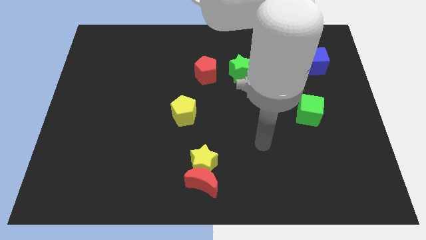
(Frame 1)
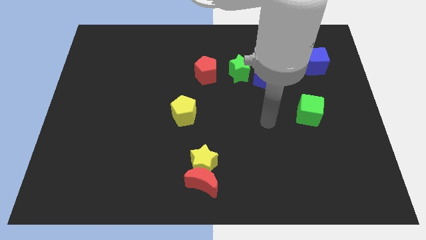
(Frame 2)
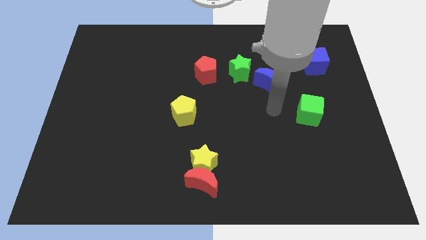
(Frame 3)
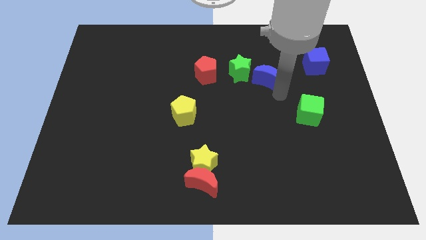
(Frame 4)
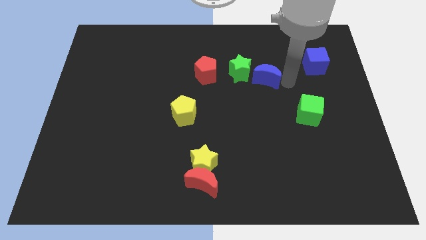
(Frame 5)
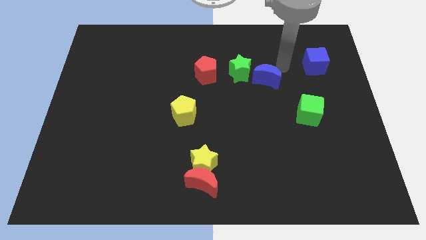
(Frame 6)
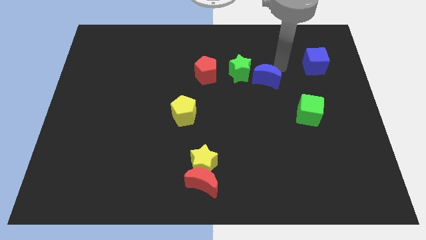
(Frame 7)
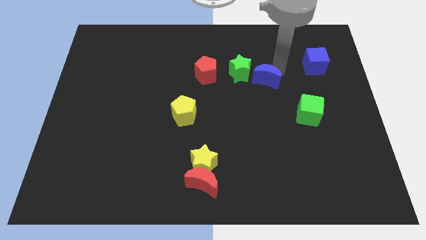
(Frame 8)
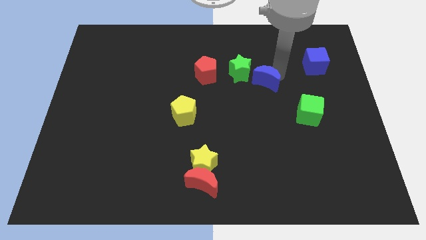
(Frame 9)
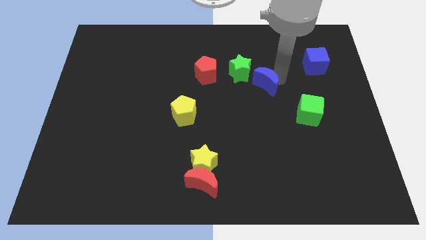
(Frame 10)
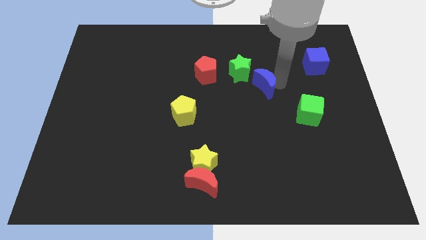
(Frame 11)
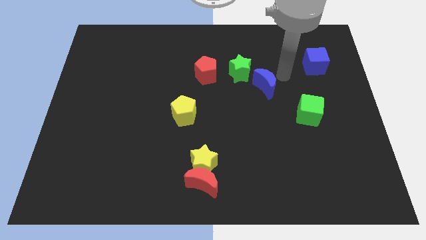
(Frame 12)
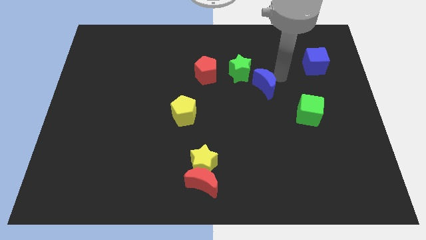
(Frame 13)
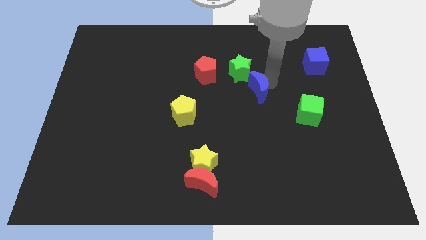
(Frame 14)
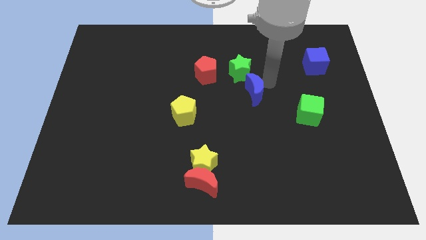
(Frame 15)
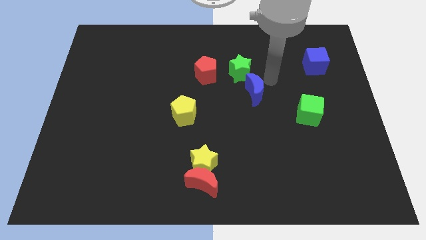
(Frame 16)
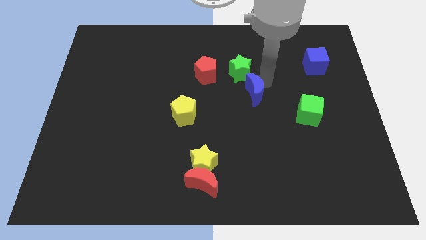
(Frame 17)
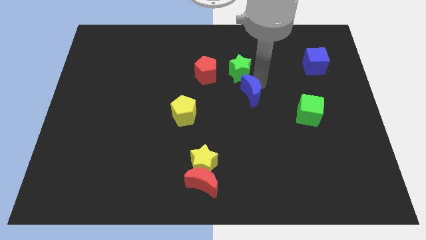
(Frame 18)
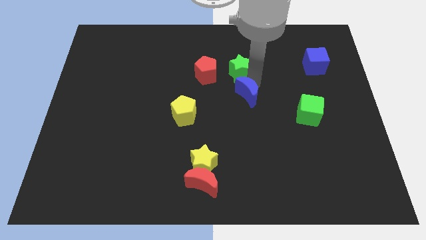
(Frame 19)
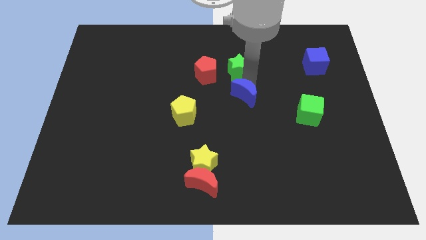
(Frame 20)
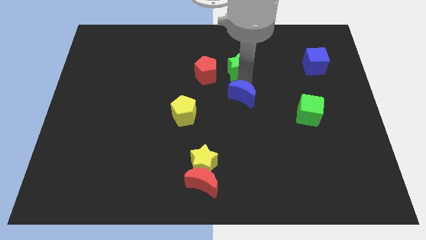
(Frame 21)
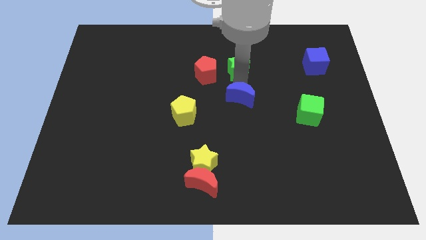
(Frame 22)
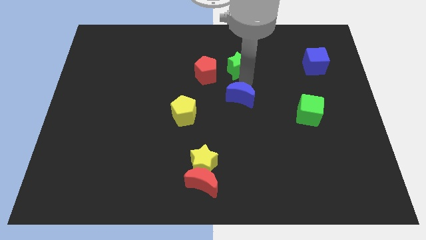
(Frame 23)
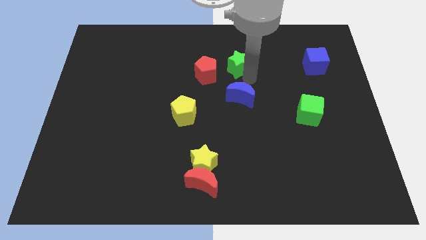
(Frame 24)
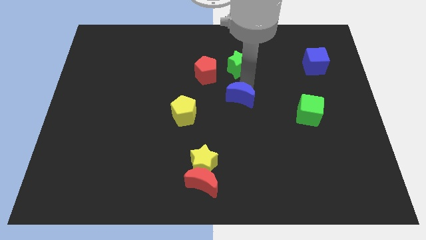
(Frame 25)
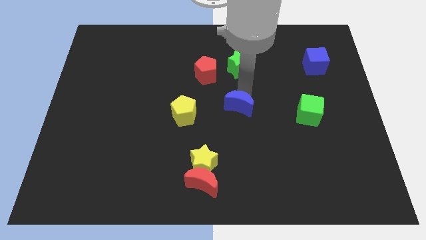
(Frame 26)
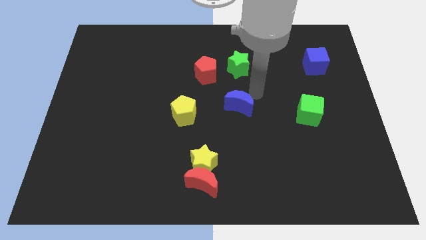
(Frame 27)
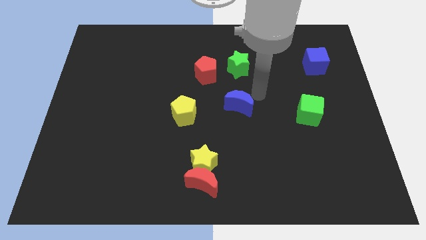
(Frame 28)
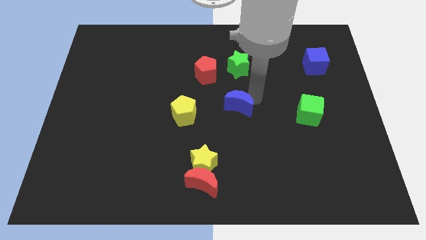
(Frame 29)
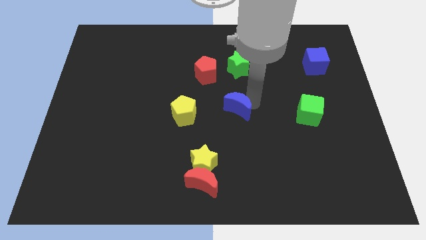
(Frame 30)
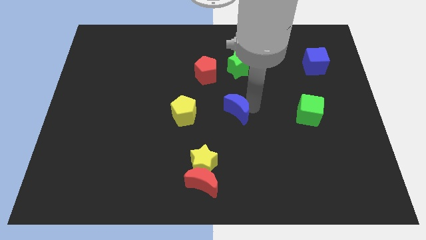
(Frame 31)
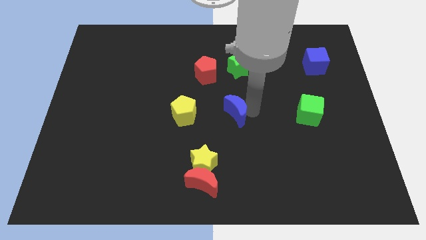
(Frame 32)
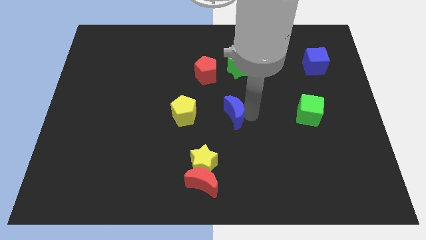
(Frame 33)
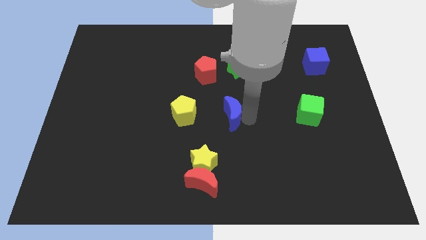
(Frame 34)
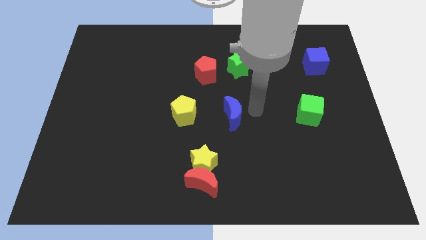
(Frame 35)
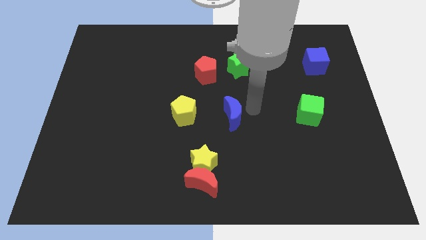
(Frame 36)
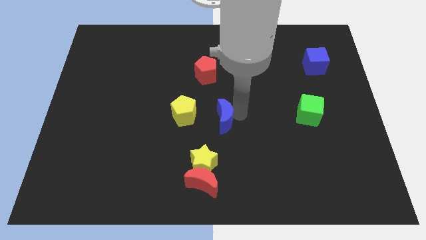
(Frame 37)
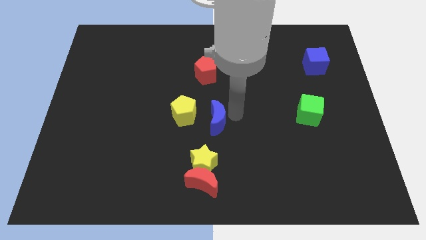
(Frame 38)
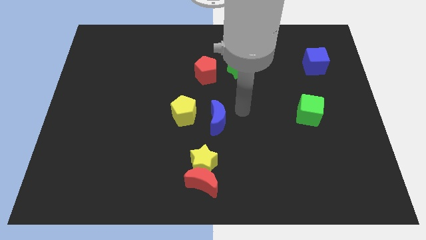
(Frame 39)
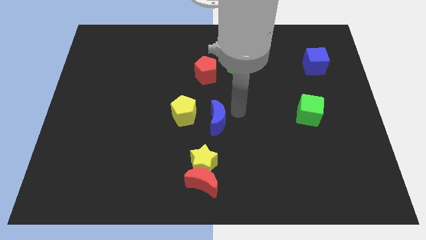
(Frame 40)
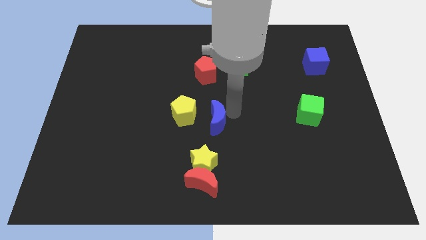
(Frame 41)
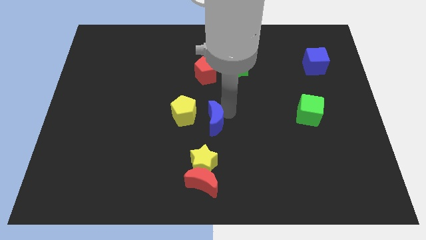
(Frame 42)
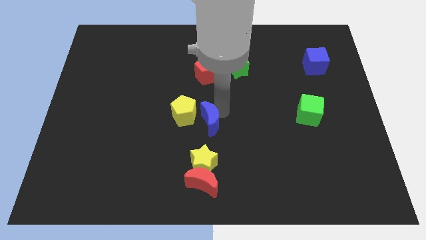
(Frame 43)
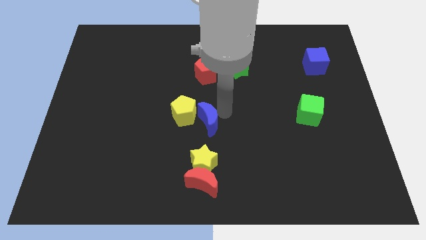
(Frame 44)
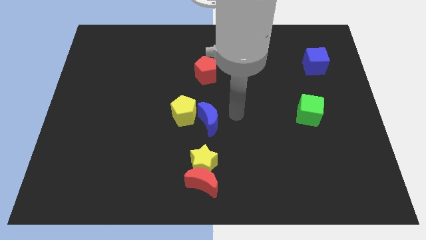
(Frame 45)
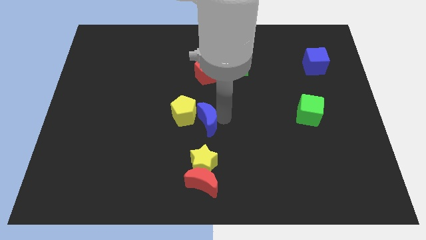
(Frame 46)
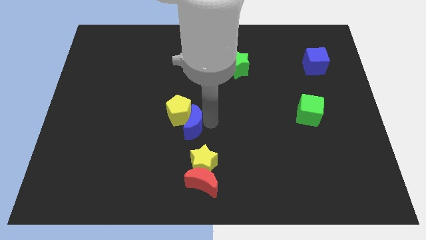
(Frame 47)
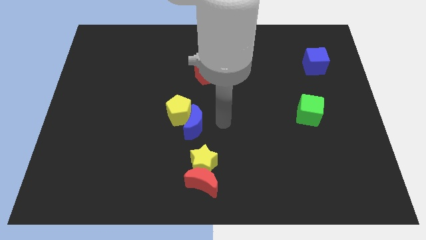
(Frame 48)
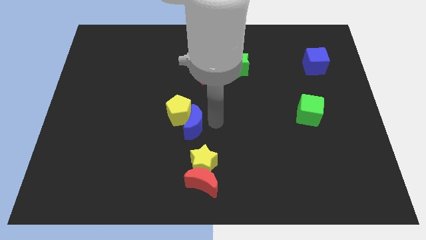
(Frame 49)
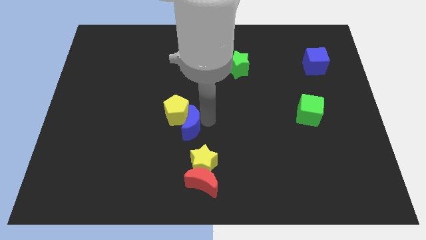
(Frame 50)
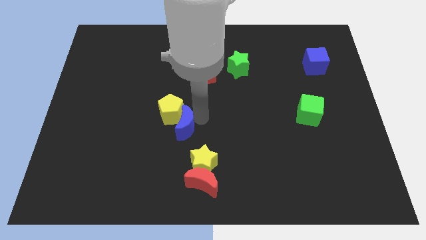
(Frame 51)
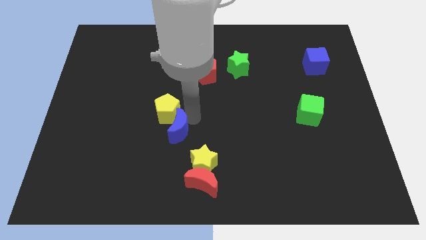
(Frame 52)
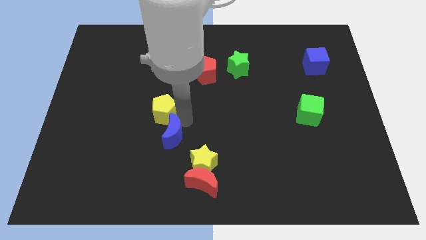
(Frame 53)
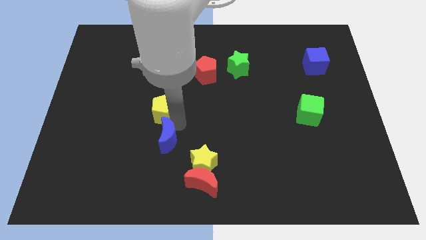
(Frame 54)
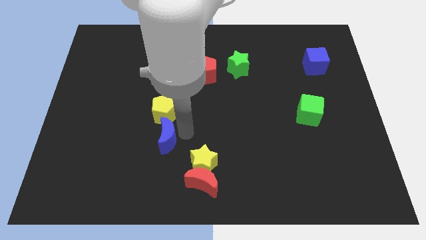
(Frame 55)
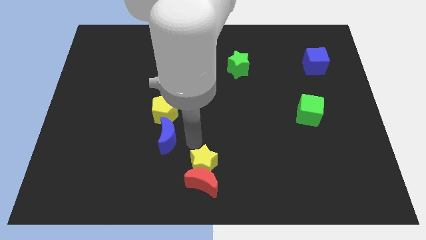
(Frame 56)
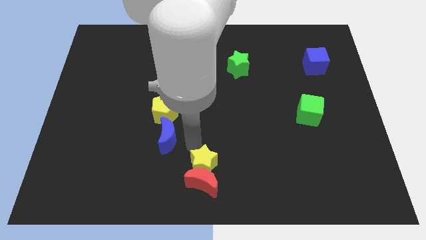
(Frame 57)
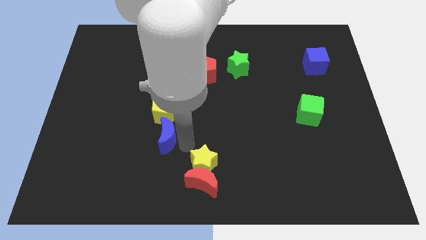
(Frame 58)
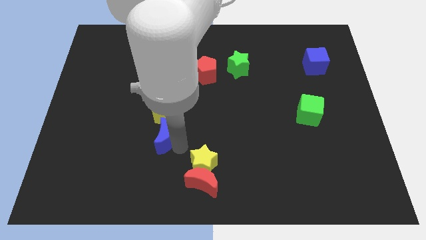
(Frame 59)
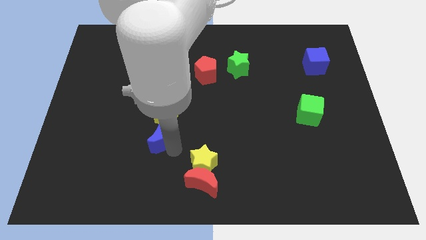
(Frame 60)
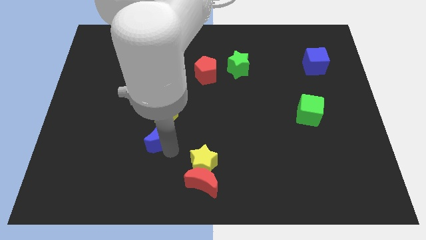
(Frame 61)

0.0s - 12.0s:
move the blue moon to the bottom left side of the yellow pentagon

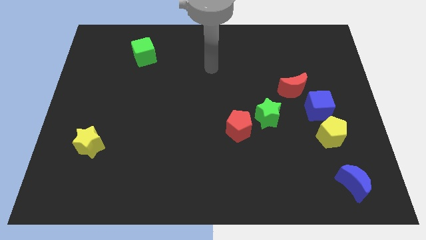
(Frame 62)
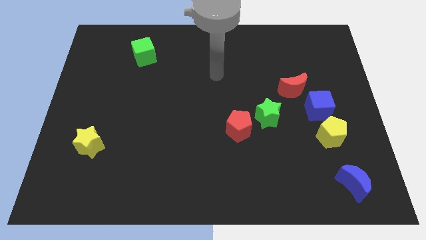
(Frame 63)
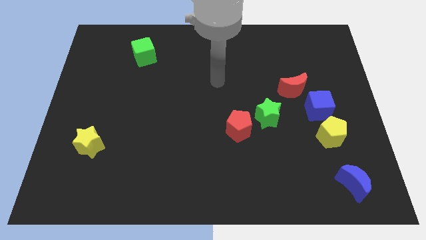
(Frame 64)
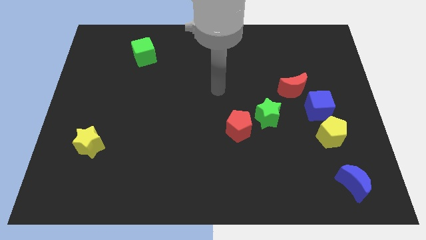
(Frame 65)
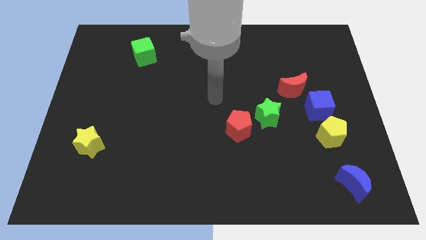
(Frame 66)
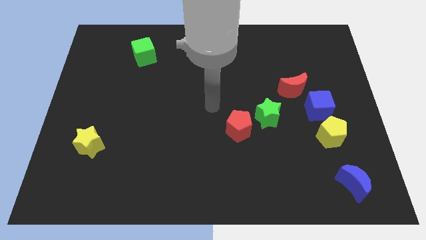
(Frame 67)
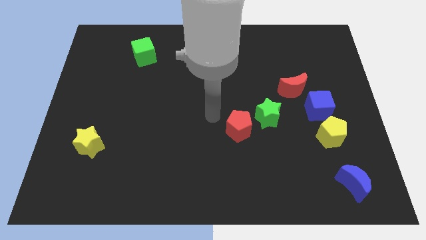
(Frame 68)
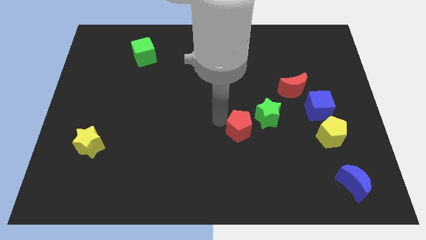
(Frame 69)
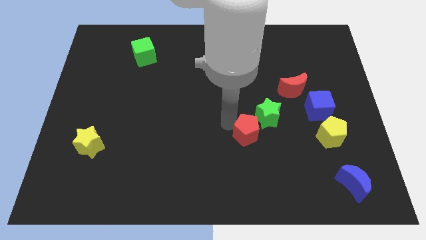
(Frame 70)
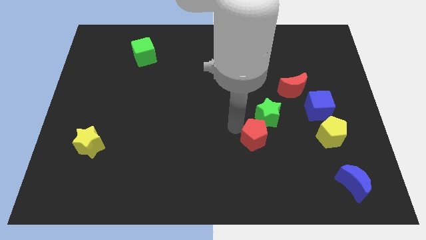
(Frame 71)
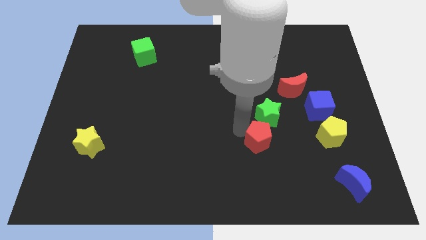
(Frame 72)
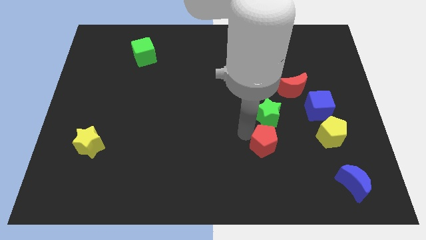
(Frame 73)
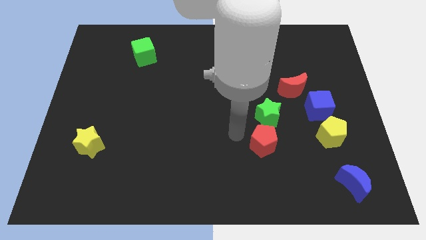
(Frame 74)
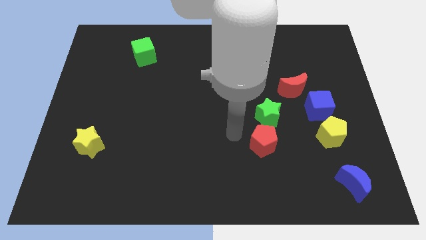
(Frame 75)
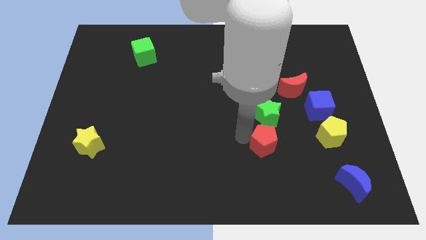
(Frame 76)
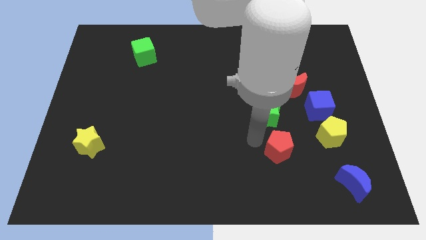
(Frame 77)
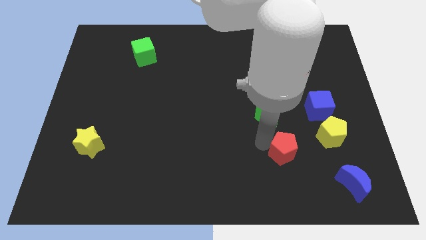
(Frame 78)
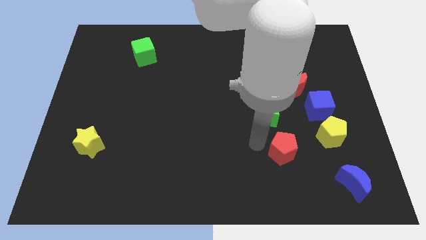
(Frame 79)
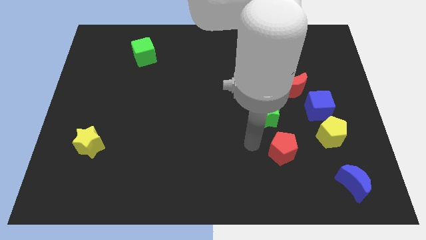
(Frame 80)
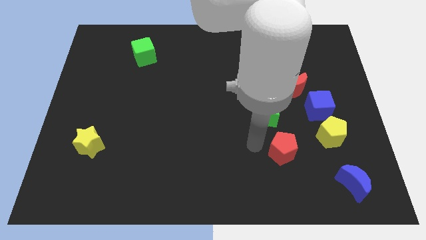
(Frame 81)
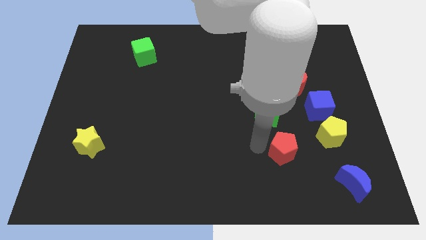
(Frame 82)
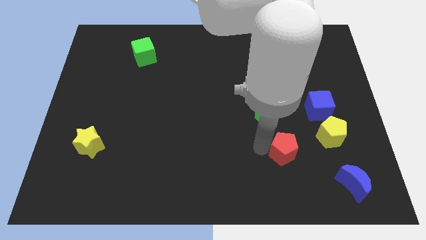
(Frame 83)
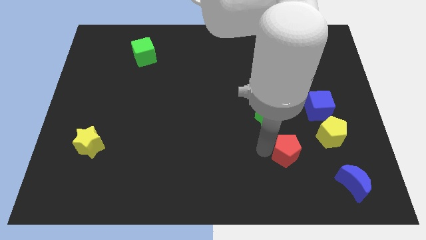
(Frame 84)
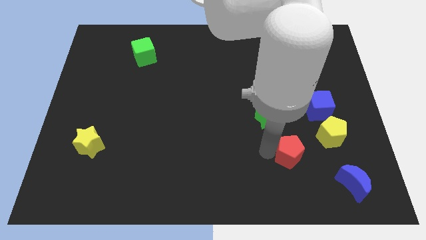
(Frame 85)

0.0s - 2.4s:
put the red pentagon to the bottom left of the yellow pentagon
